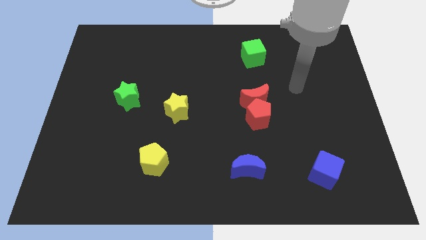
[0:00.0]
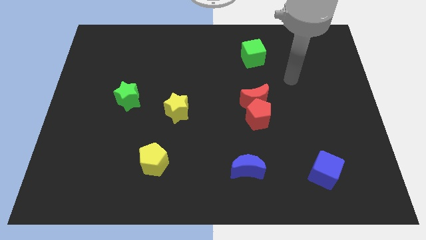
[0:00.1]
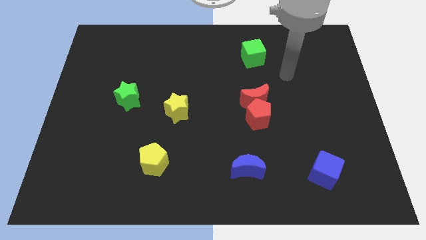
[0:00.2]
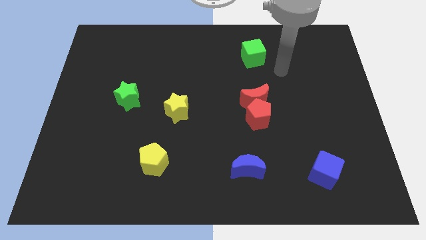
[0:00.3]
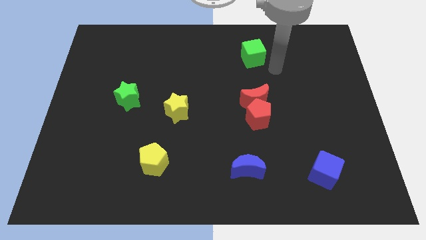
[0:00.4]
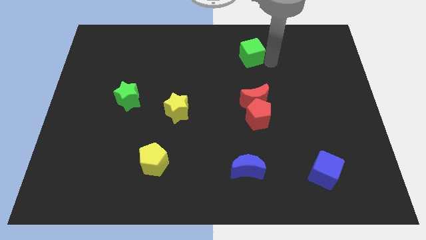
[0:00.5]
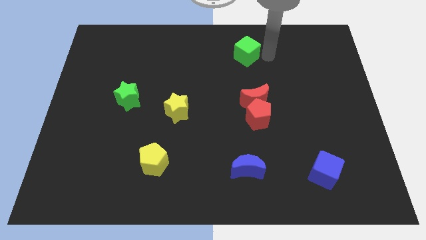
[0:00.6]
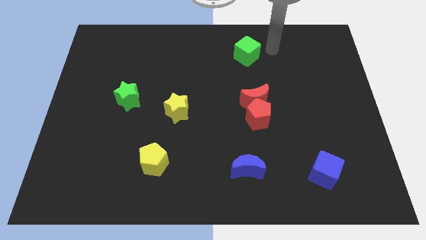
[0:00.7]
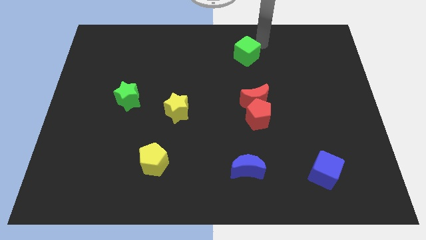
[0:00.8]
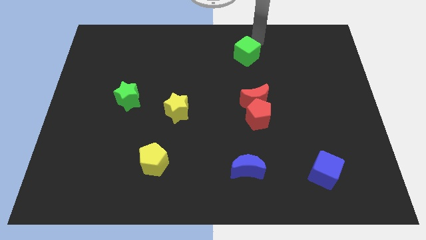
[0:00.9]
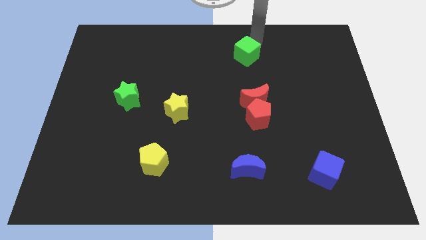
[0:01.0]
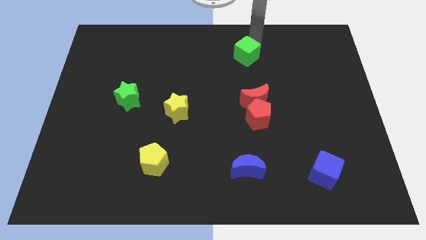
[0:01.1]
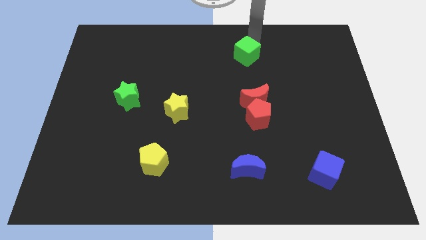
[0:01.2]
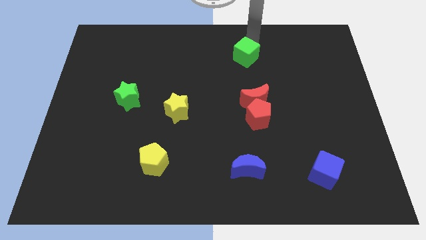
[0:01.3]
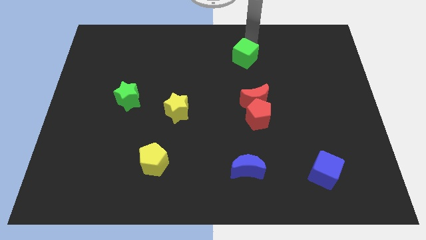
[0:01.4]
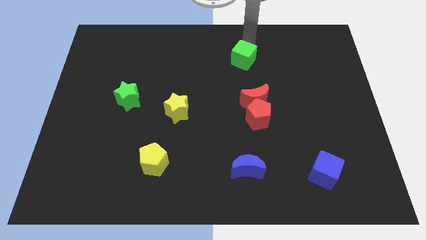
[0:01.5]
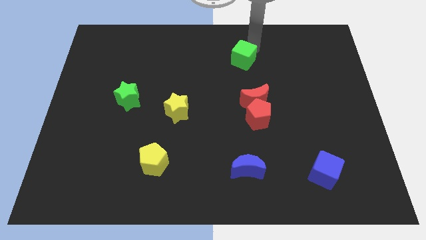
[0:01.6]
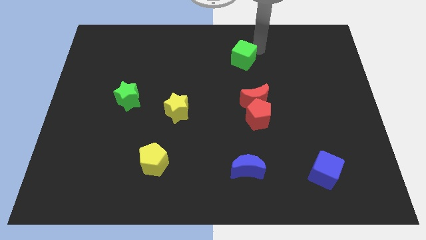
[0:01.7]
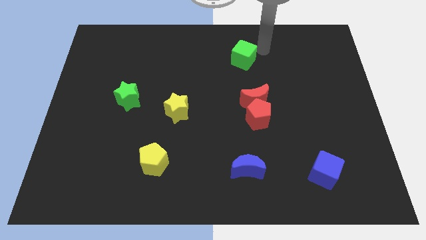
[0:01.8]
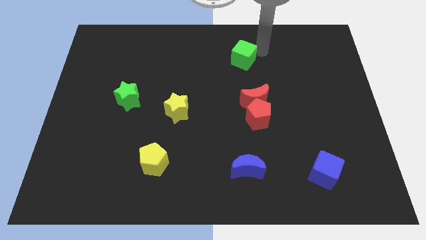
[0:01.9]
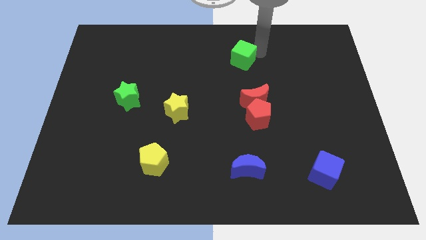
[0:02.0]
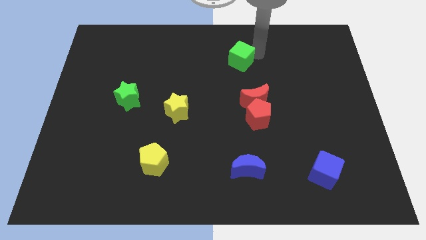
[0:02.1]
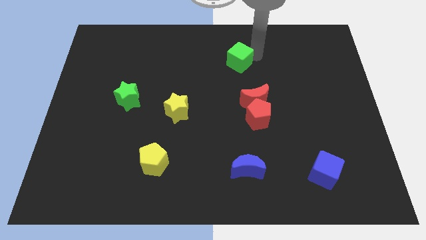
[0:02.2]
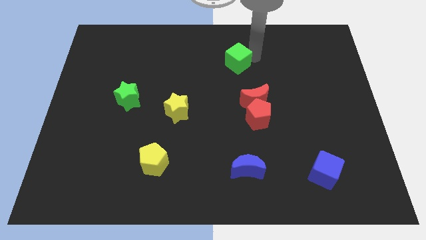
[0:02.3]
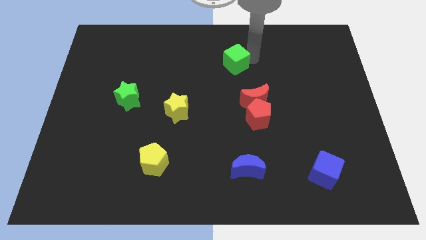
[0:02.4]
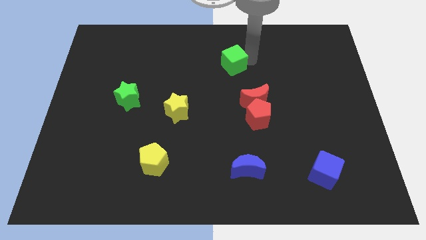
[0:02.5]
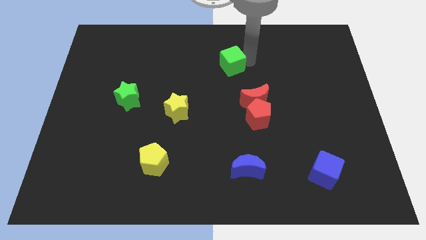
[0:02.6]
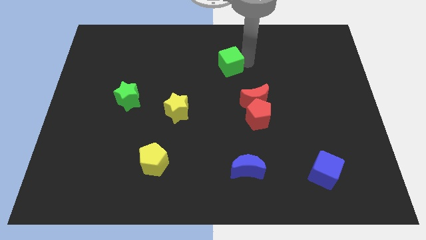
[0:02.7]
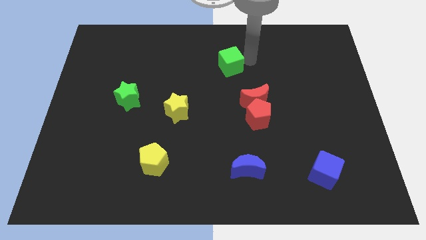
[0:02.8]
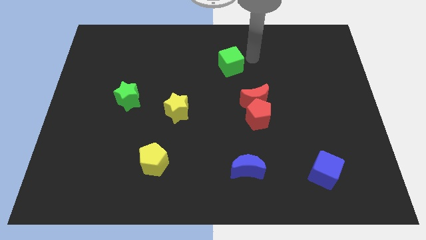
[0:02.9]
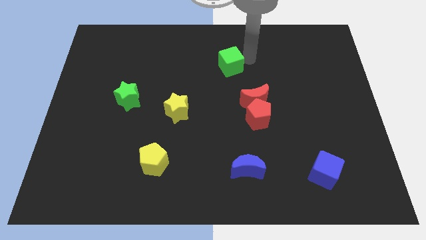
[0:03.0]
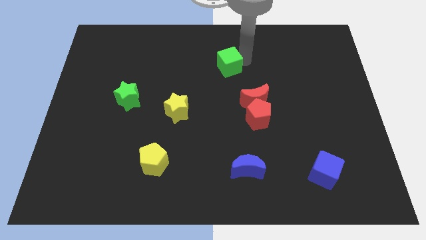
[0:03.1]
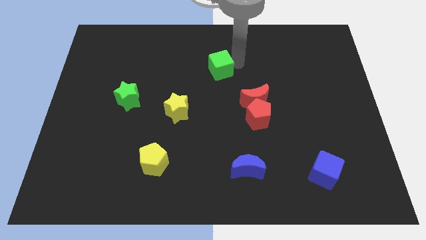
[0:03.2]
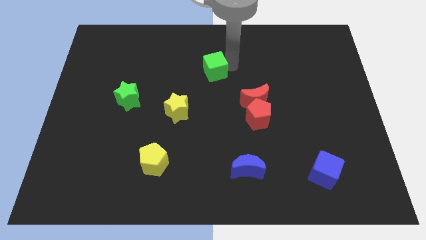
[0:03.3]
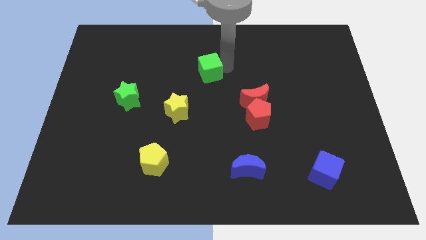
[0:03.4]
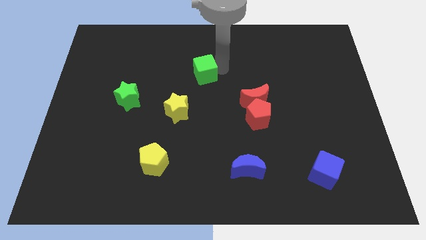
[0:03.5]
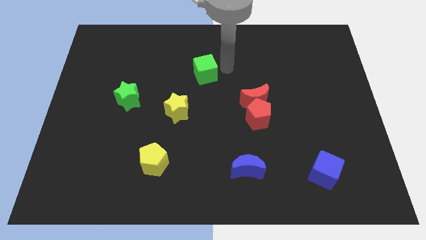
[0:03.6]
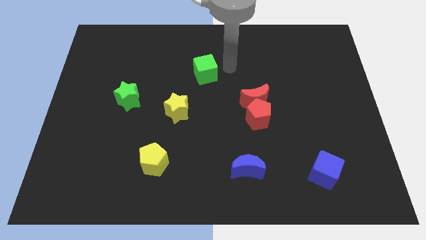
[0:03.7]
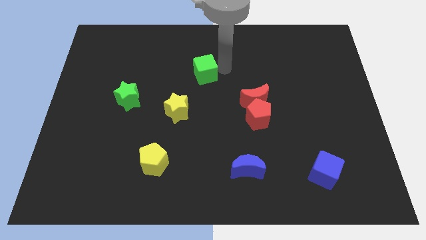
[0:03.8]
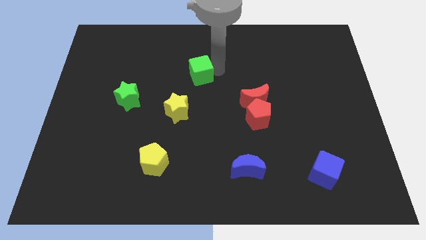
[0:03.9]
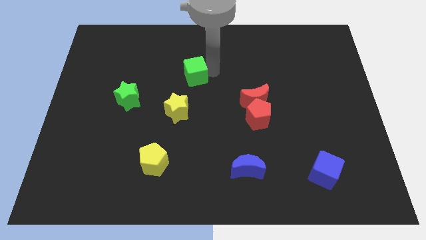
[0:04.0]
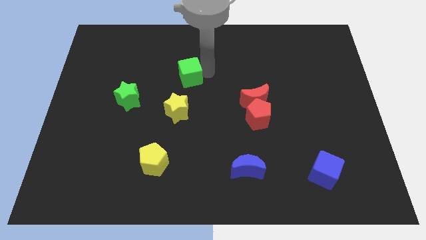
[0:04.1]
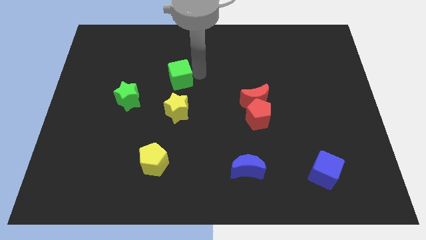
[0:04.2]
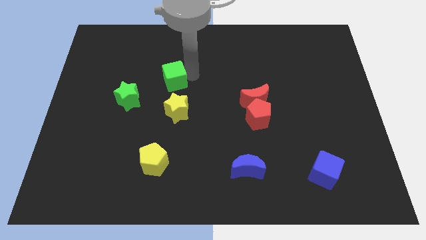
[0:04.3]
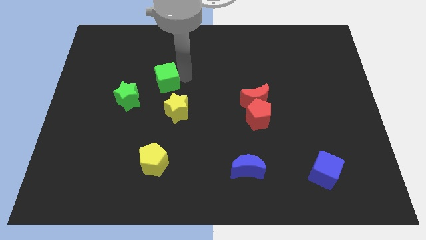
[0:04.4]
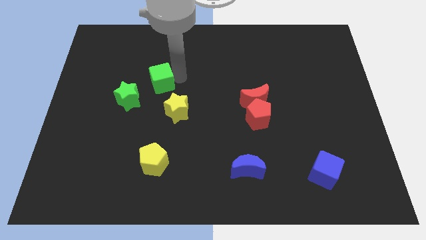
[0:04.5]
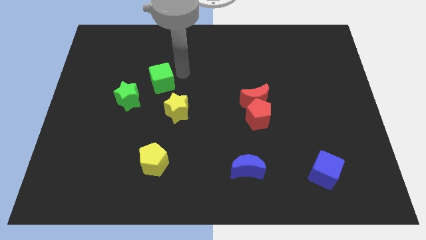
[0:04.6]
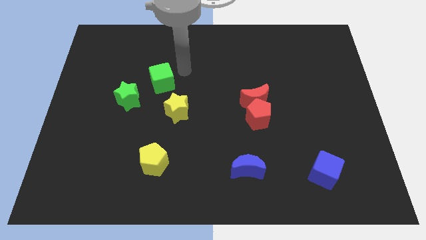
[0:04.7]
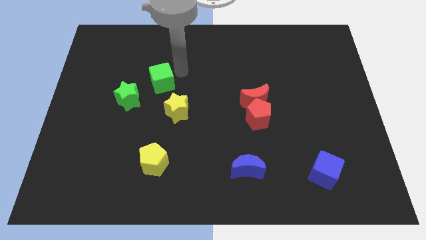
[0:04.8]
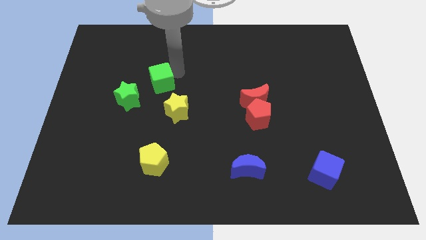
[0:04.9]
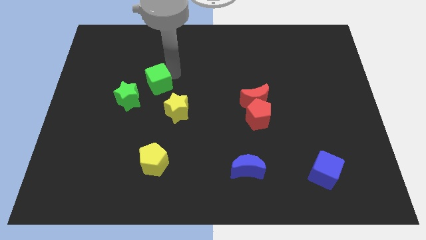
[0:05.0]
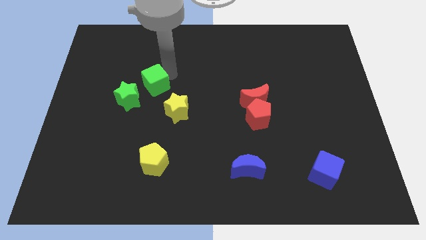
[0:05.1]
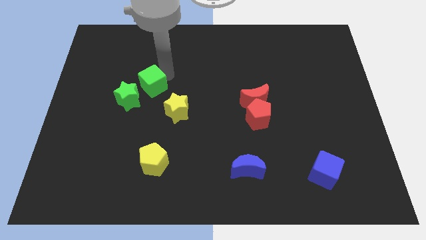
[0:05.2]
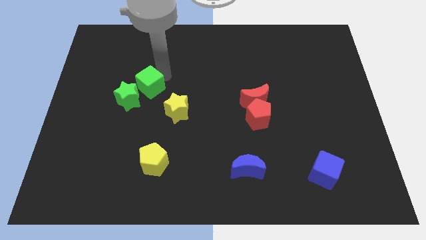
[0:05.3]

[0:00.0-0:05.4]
slide the green cube next to the green star

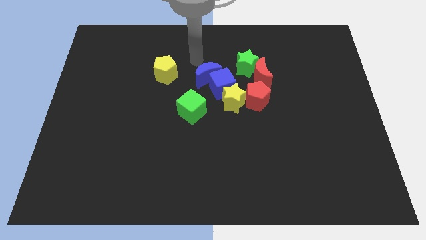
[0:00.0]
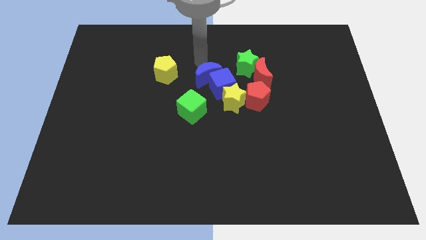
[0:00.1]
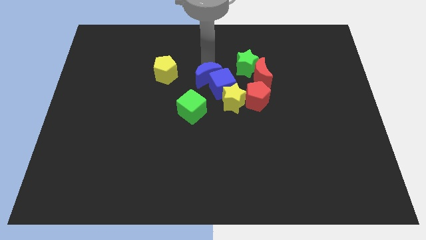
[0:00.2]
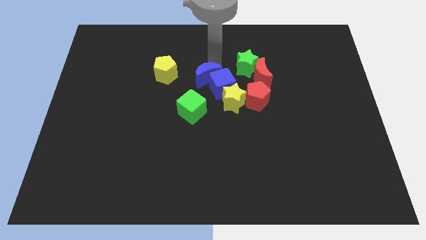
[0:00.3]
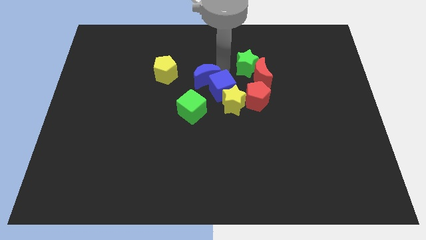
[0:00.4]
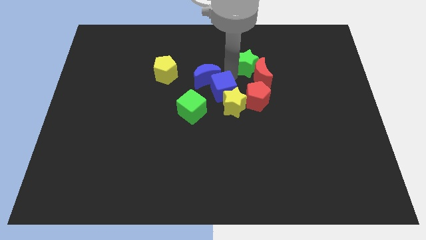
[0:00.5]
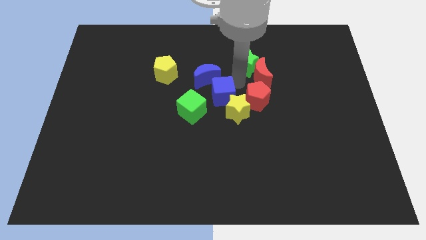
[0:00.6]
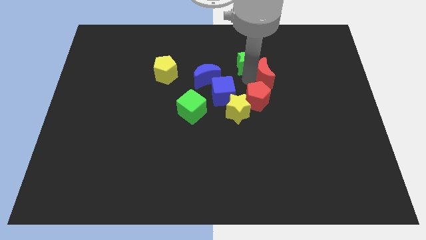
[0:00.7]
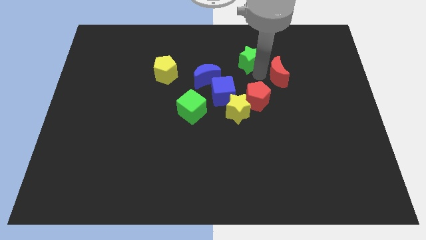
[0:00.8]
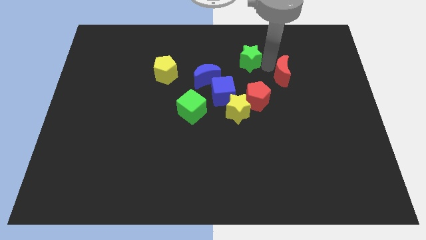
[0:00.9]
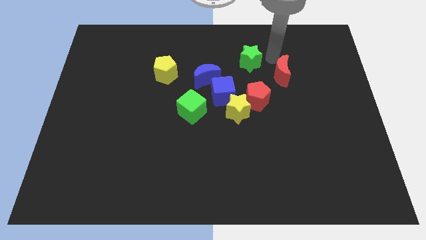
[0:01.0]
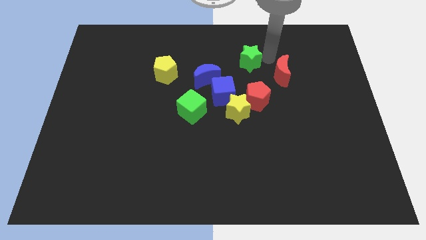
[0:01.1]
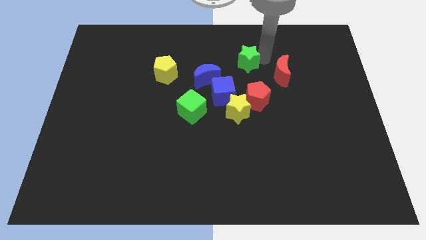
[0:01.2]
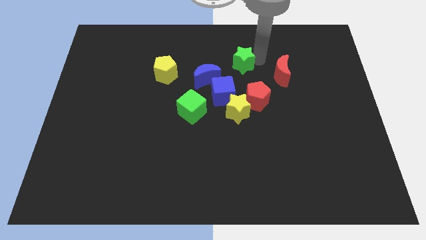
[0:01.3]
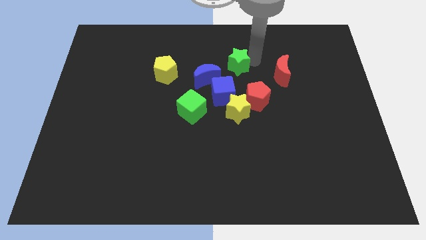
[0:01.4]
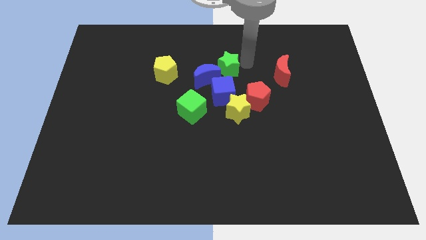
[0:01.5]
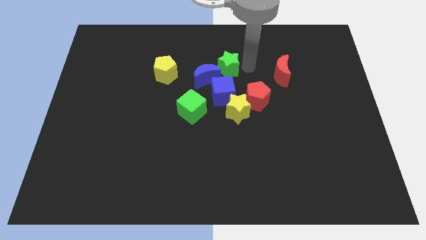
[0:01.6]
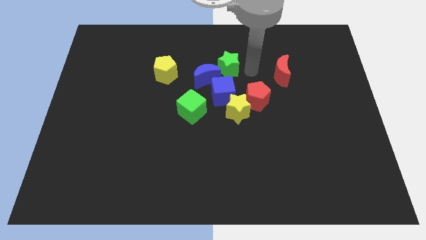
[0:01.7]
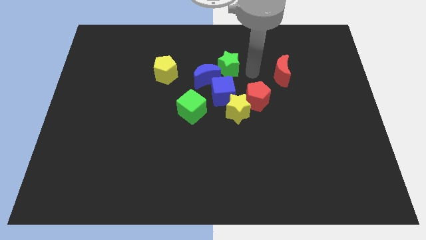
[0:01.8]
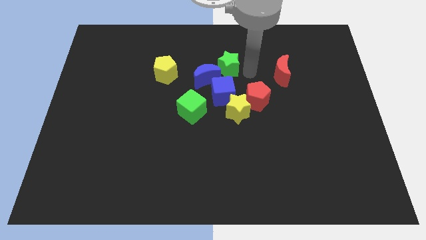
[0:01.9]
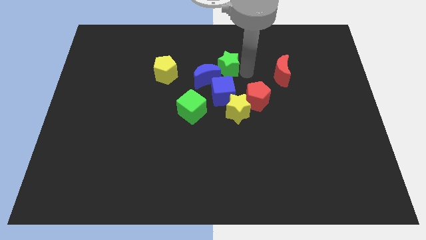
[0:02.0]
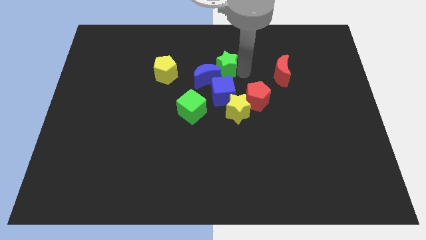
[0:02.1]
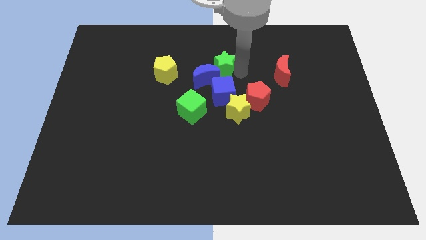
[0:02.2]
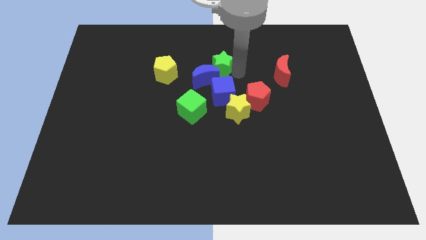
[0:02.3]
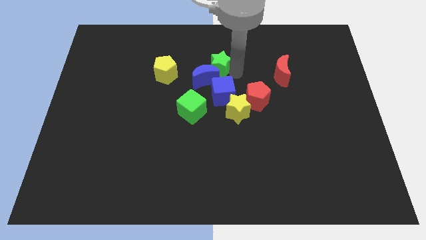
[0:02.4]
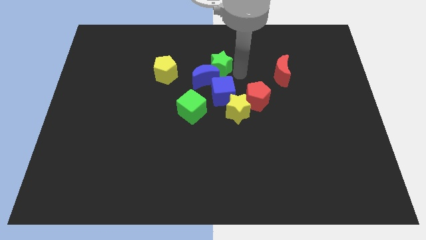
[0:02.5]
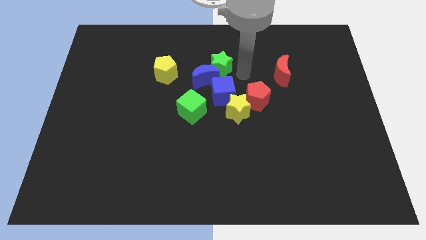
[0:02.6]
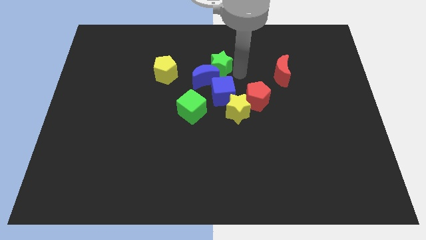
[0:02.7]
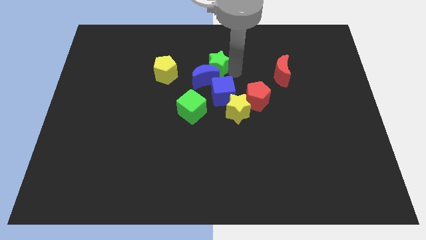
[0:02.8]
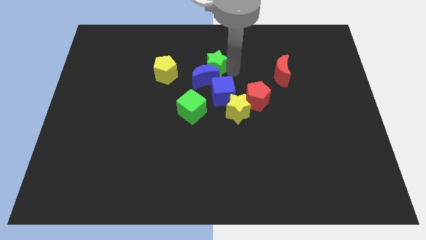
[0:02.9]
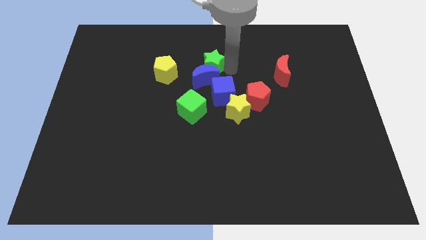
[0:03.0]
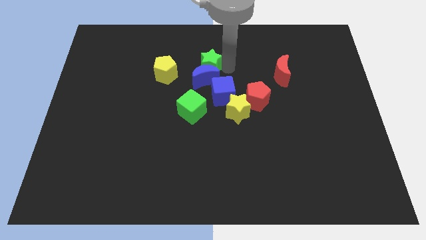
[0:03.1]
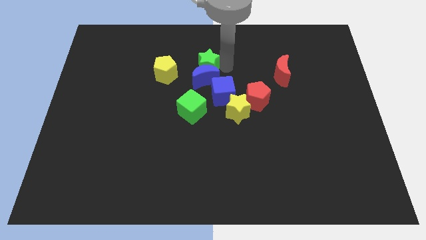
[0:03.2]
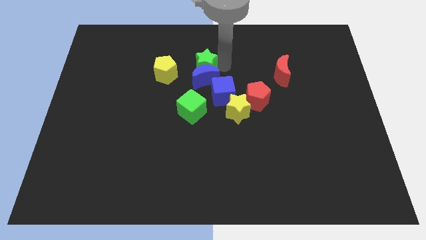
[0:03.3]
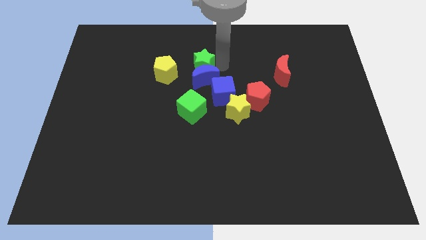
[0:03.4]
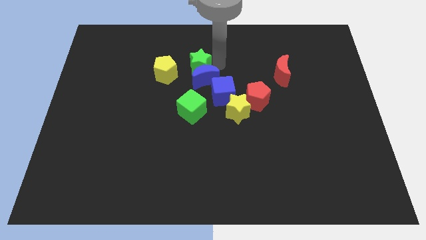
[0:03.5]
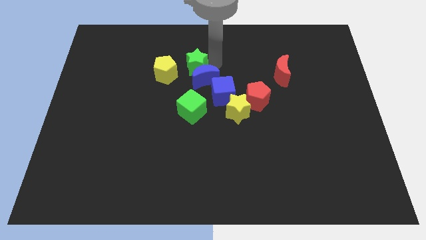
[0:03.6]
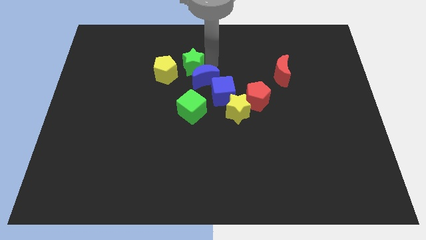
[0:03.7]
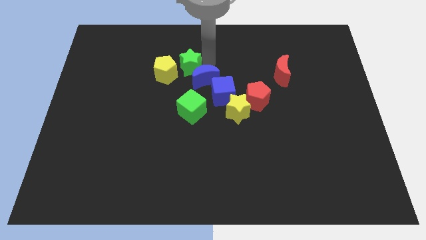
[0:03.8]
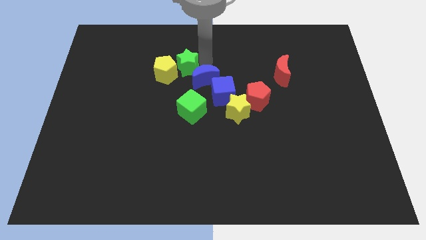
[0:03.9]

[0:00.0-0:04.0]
push the green star to the yellow pentagon
